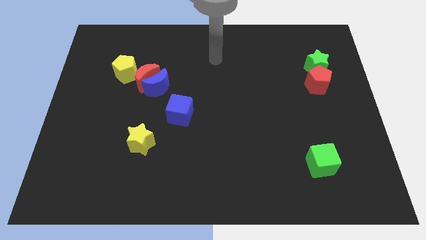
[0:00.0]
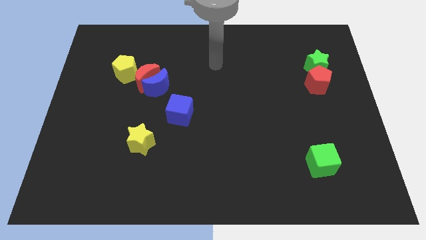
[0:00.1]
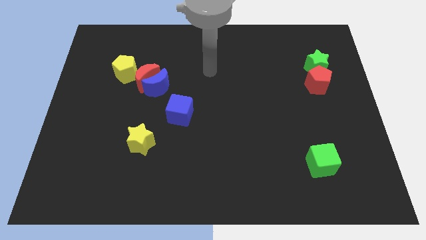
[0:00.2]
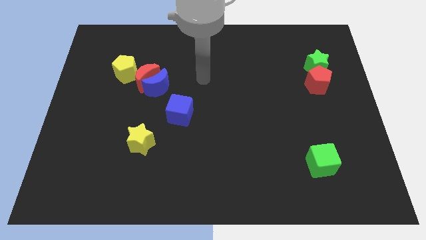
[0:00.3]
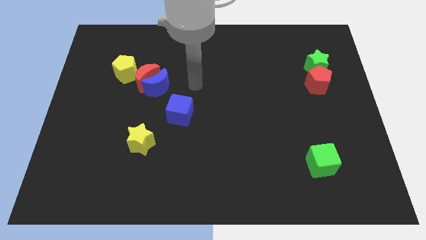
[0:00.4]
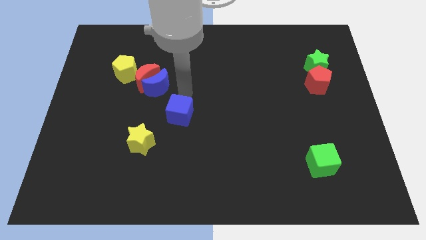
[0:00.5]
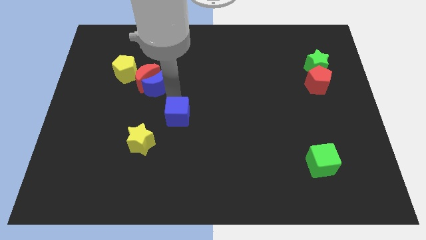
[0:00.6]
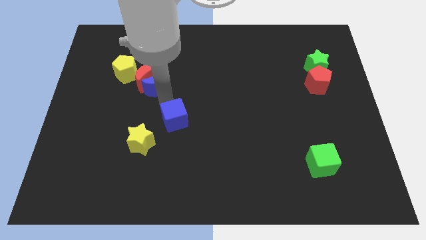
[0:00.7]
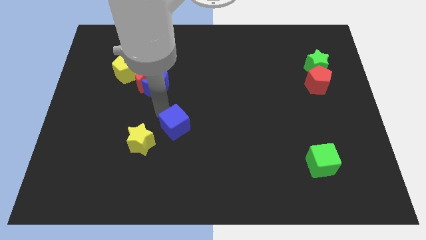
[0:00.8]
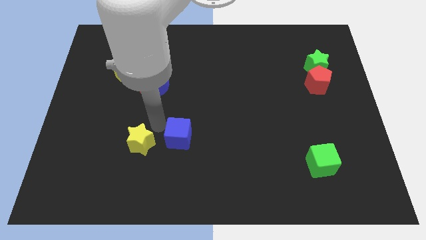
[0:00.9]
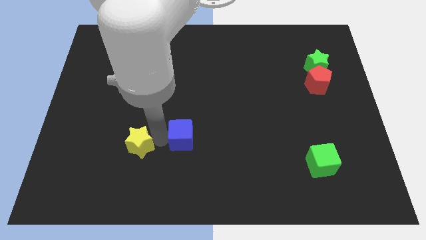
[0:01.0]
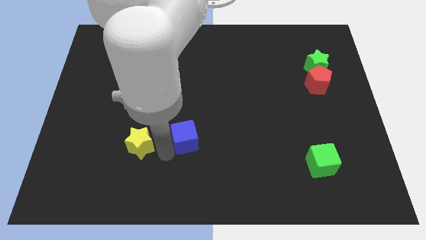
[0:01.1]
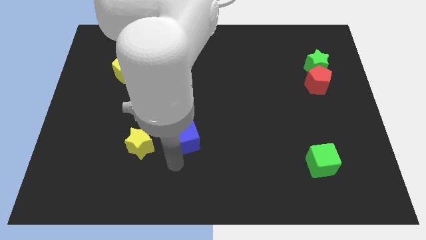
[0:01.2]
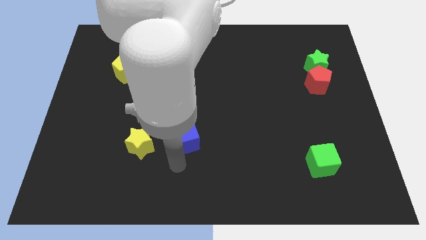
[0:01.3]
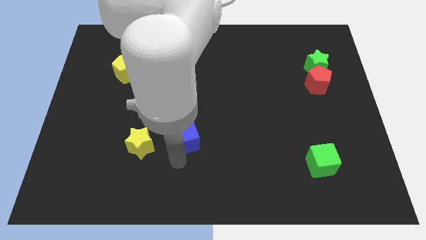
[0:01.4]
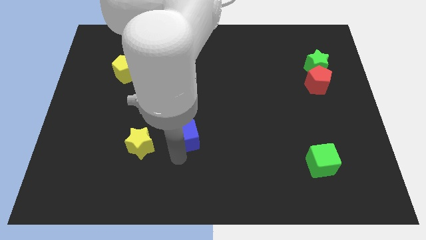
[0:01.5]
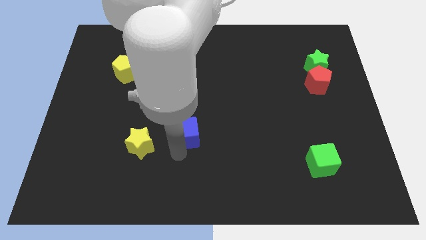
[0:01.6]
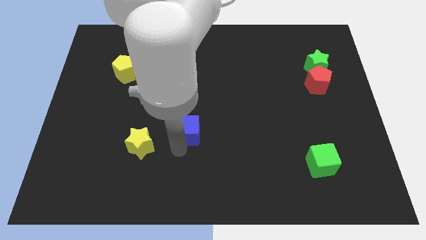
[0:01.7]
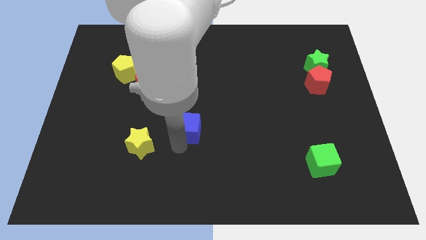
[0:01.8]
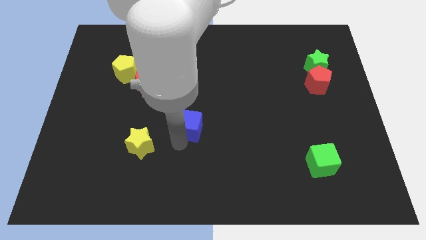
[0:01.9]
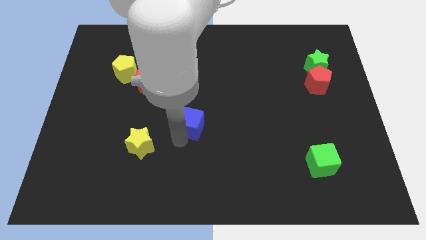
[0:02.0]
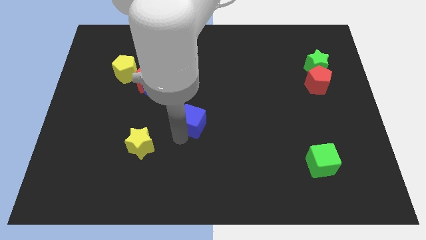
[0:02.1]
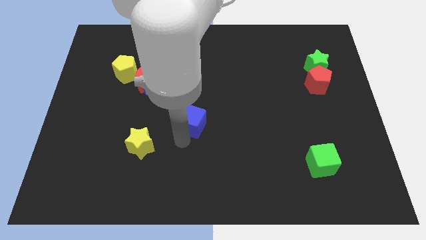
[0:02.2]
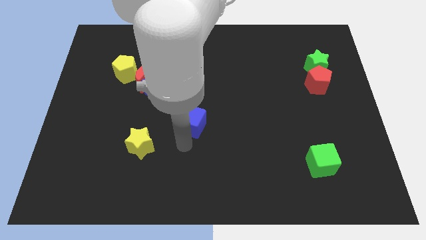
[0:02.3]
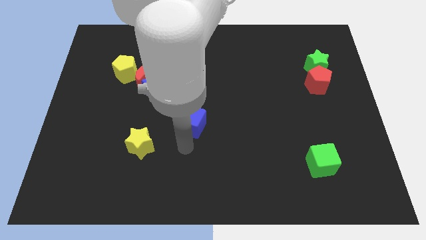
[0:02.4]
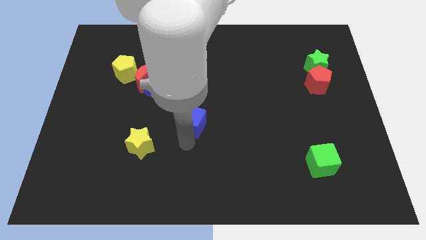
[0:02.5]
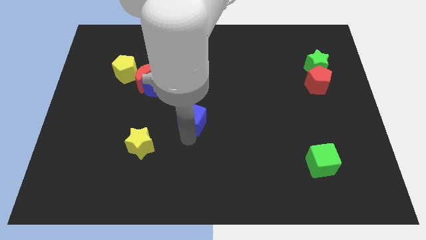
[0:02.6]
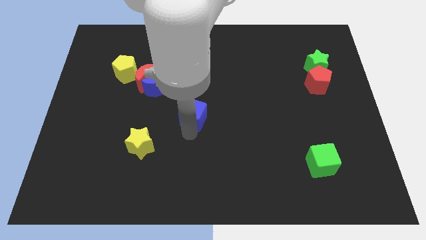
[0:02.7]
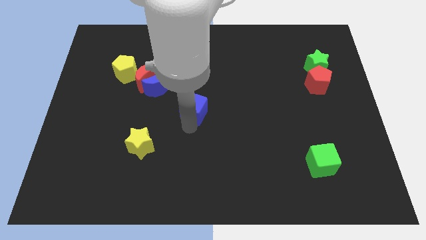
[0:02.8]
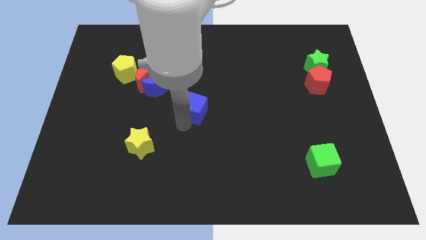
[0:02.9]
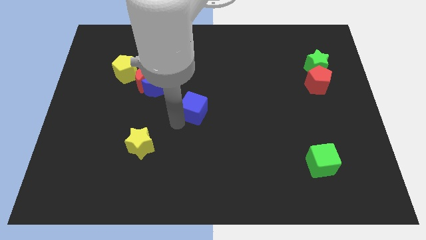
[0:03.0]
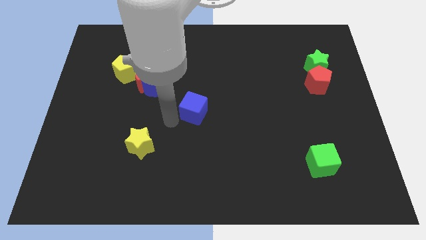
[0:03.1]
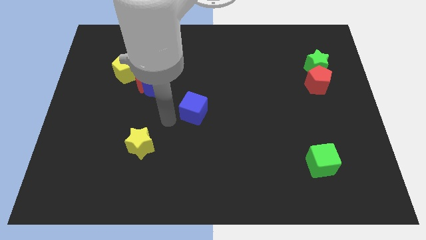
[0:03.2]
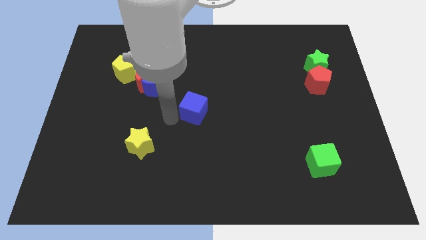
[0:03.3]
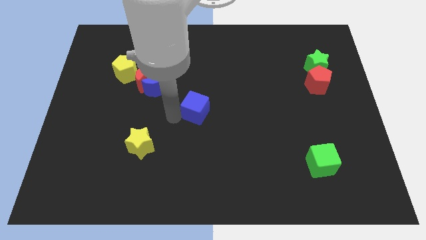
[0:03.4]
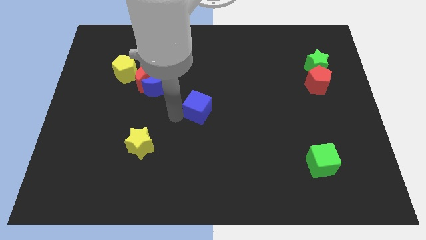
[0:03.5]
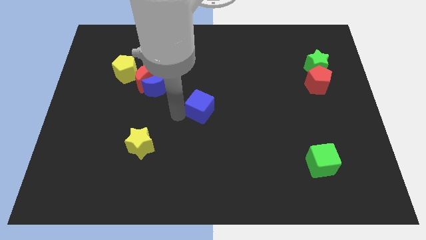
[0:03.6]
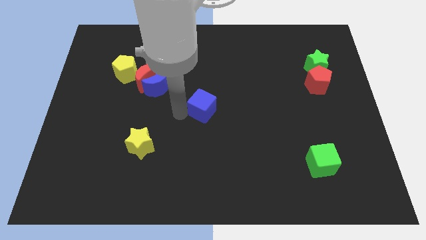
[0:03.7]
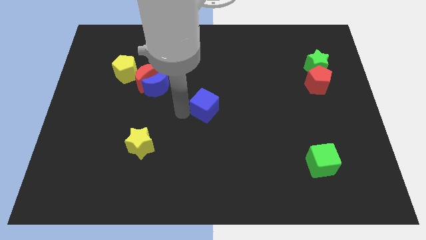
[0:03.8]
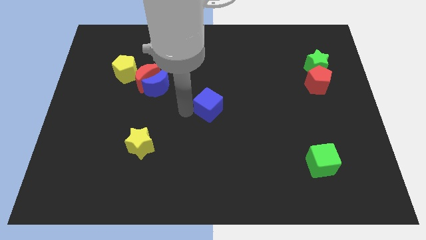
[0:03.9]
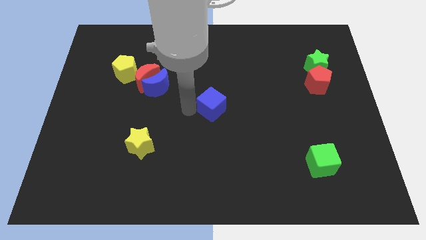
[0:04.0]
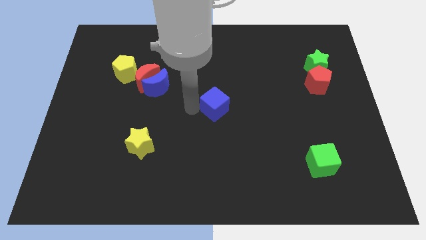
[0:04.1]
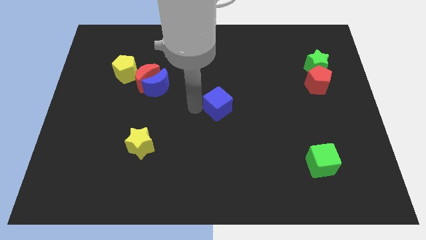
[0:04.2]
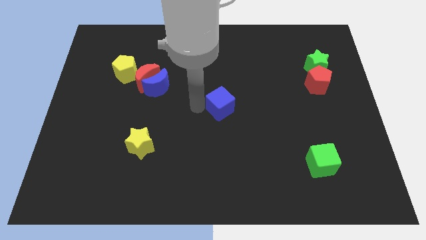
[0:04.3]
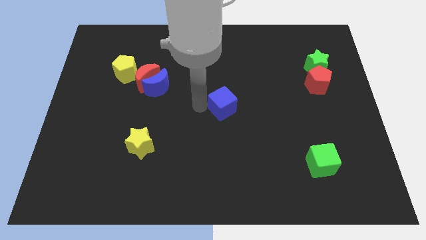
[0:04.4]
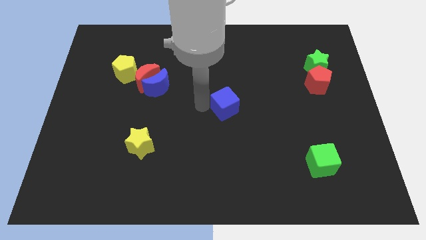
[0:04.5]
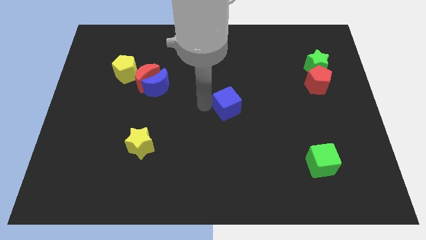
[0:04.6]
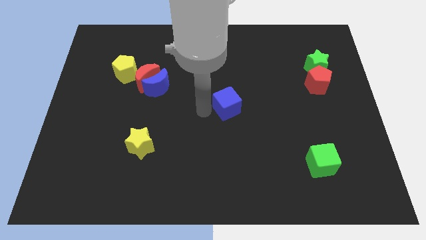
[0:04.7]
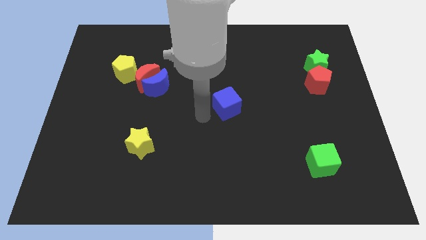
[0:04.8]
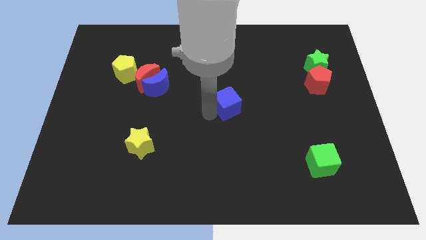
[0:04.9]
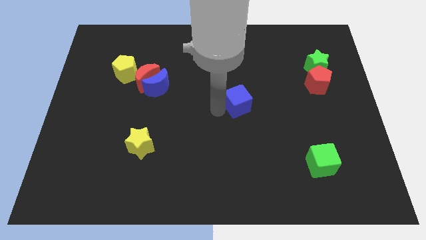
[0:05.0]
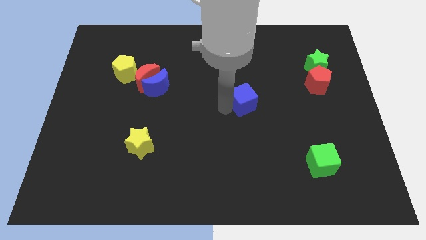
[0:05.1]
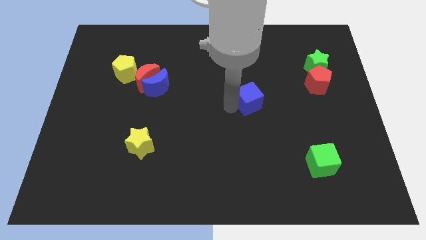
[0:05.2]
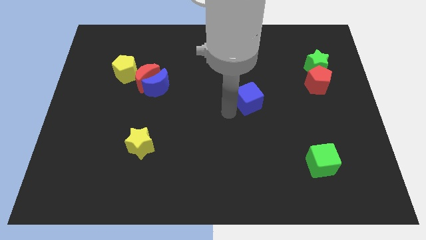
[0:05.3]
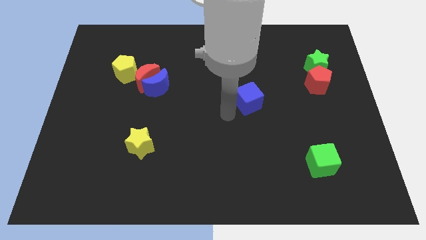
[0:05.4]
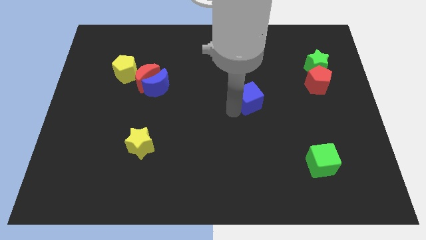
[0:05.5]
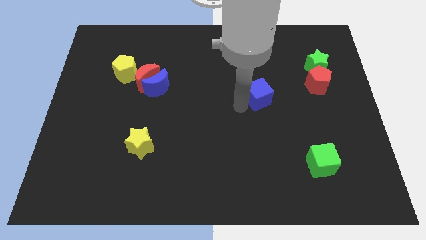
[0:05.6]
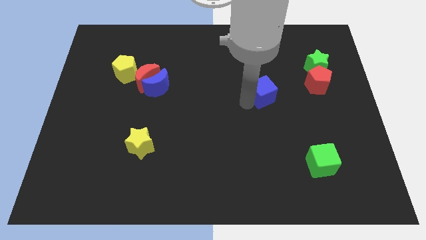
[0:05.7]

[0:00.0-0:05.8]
put the blue cube just left of the red pentagon

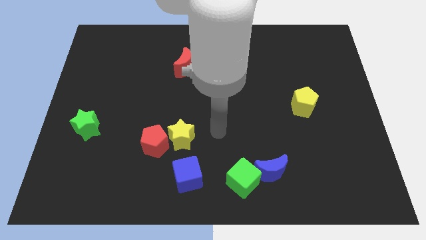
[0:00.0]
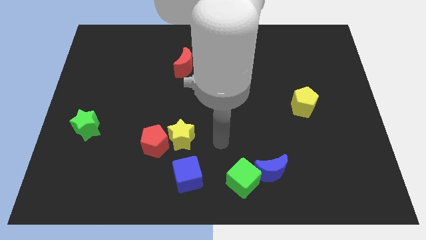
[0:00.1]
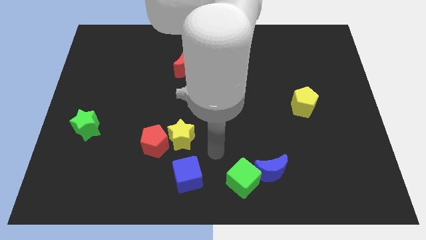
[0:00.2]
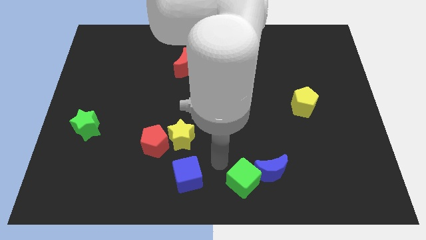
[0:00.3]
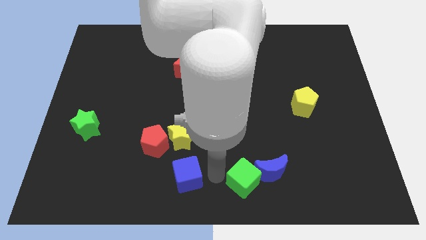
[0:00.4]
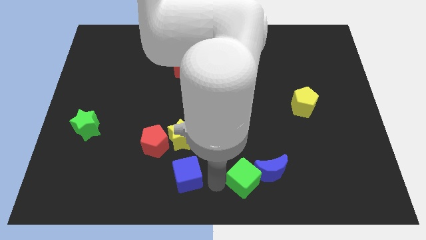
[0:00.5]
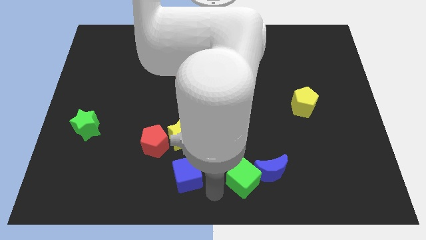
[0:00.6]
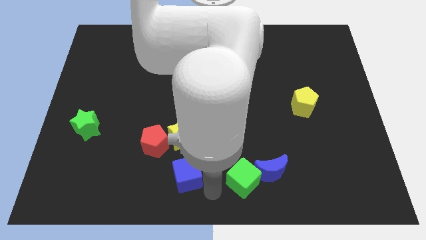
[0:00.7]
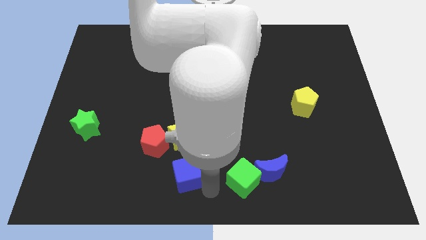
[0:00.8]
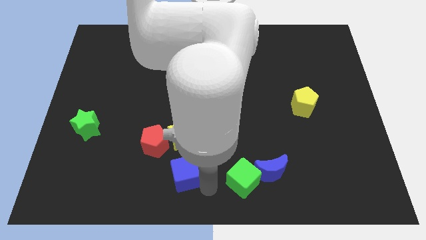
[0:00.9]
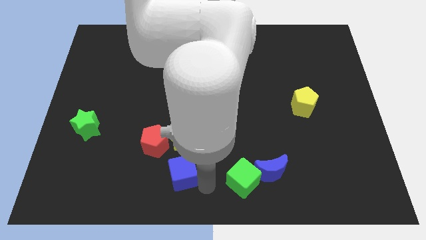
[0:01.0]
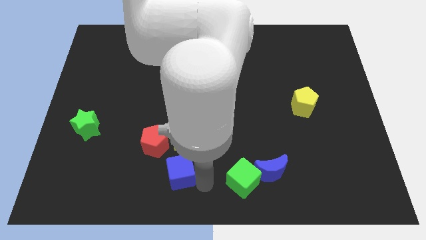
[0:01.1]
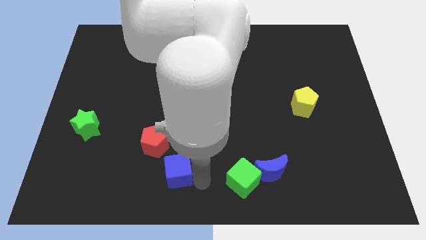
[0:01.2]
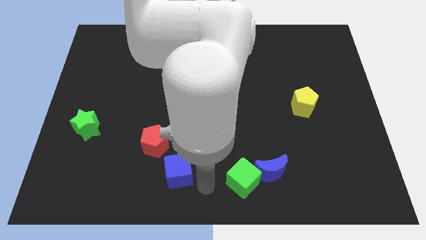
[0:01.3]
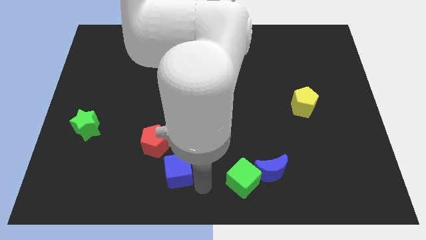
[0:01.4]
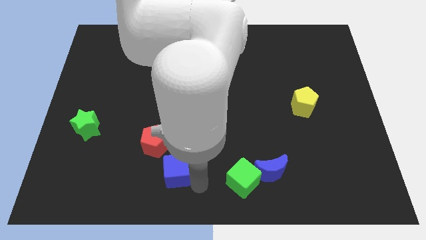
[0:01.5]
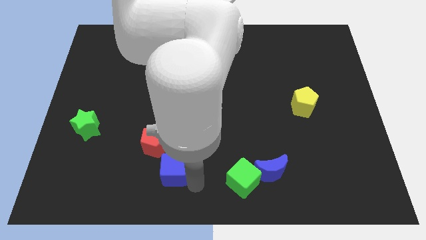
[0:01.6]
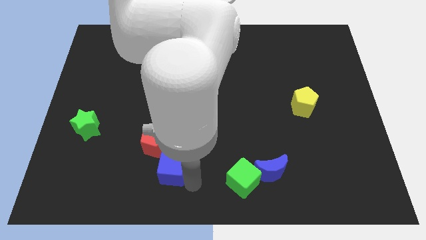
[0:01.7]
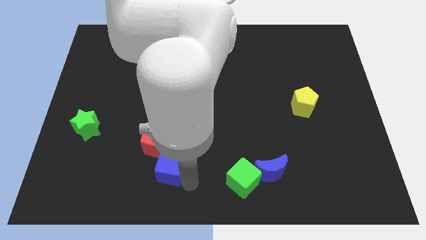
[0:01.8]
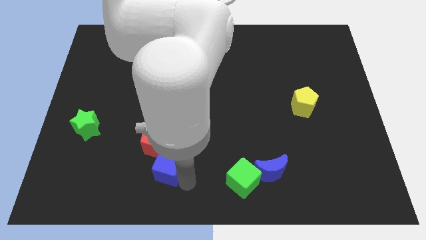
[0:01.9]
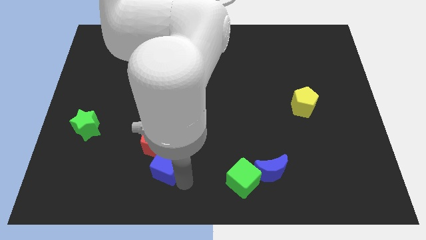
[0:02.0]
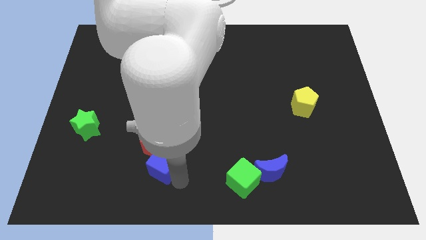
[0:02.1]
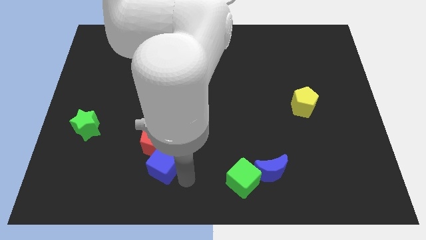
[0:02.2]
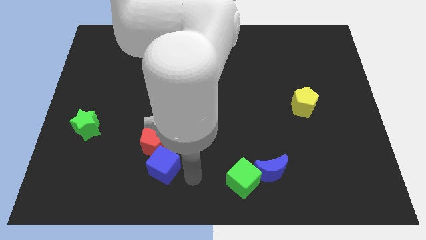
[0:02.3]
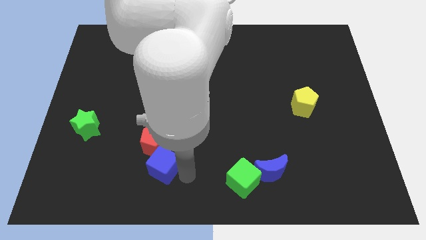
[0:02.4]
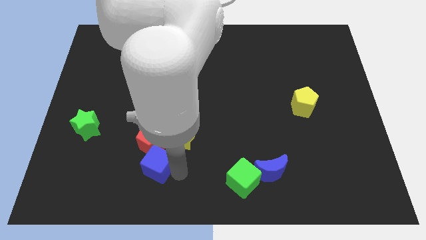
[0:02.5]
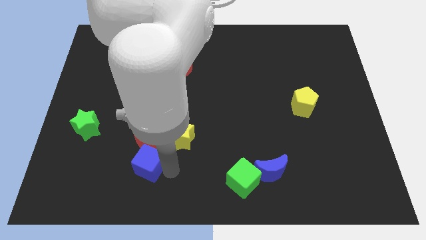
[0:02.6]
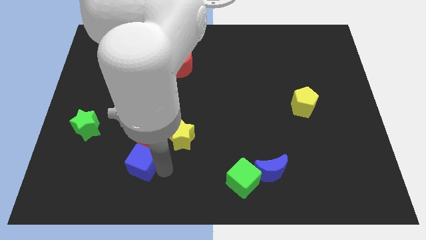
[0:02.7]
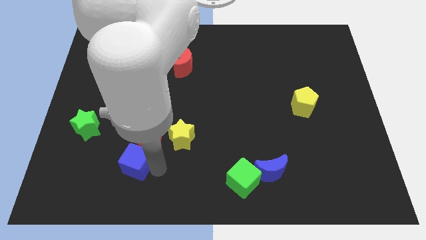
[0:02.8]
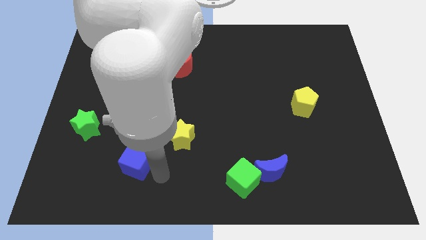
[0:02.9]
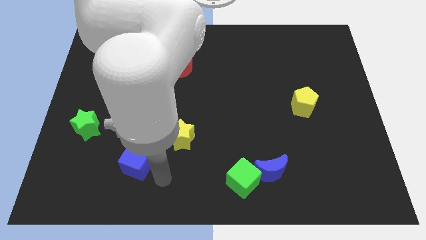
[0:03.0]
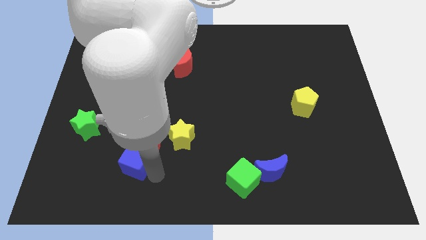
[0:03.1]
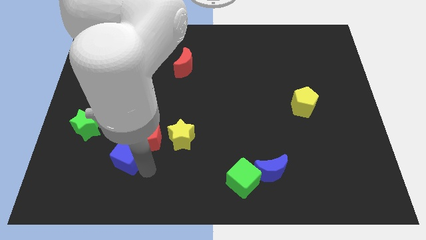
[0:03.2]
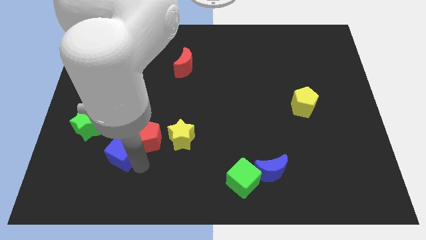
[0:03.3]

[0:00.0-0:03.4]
push the blue cube to the bottom right side of the green star
